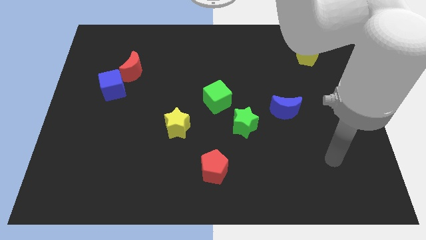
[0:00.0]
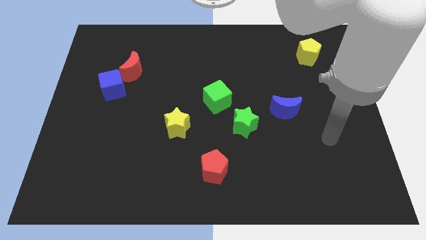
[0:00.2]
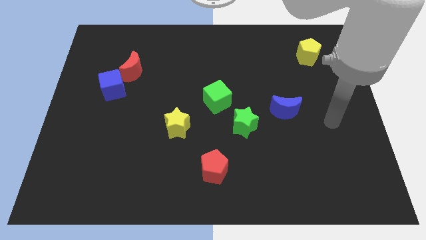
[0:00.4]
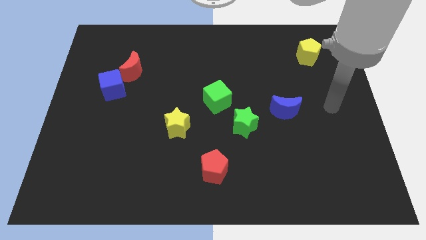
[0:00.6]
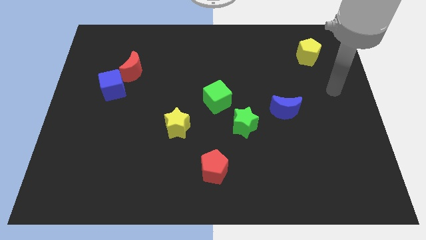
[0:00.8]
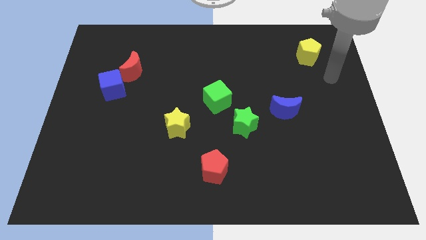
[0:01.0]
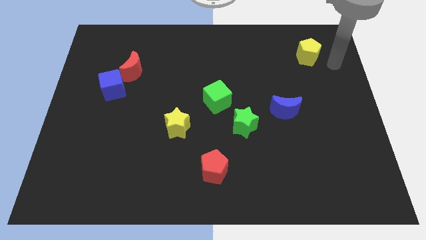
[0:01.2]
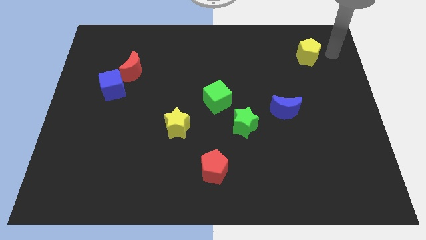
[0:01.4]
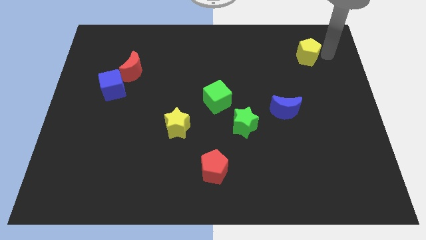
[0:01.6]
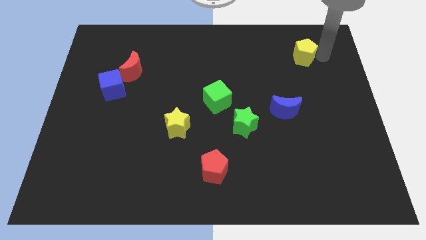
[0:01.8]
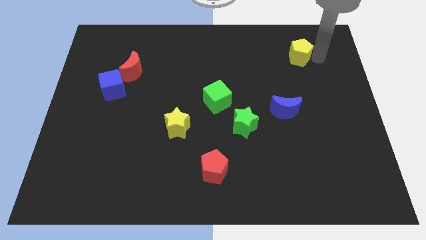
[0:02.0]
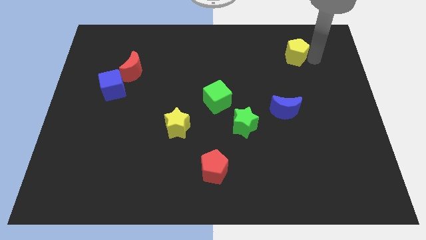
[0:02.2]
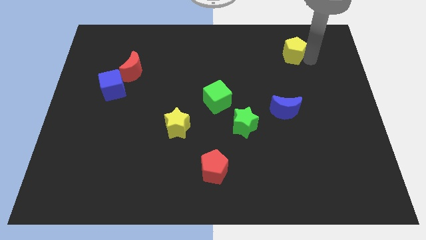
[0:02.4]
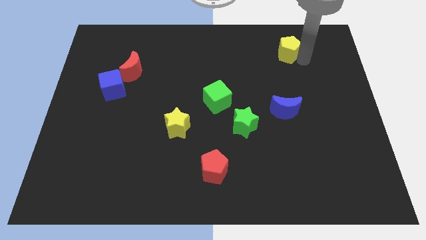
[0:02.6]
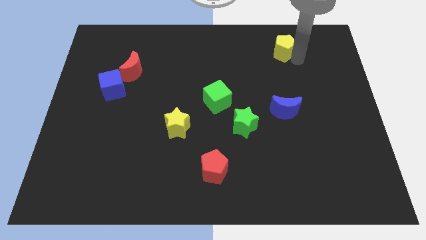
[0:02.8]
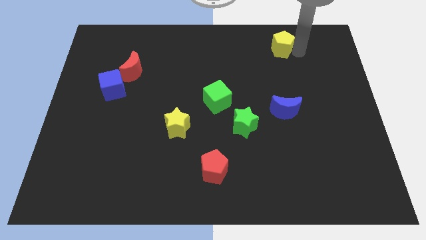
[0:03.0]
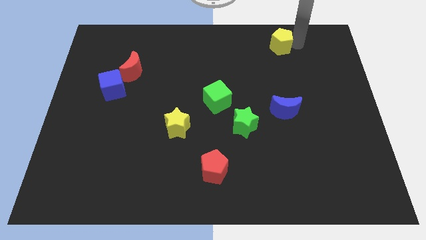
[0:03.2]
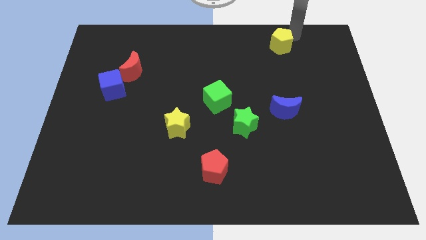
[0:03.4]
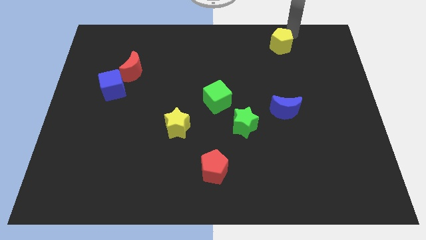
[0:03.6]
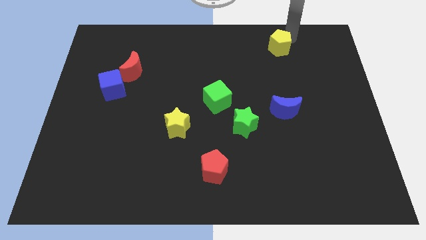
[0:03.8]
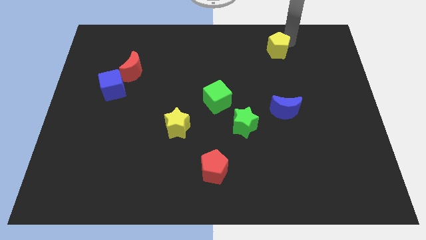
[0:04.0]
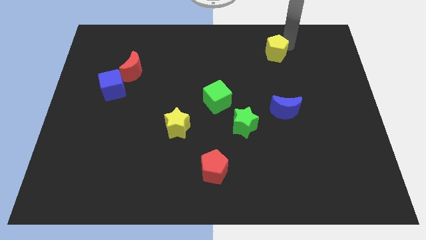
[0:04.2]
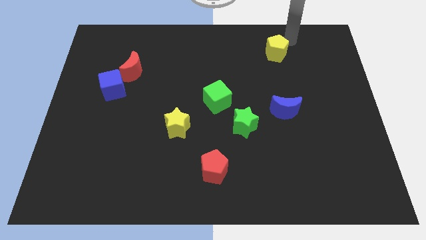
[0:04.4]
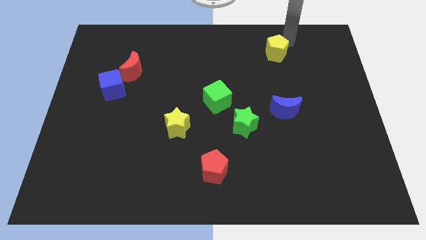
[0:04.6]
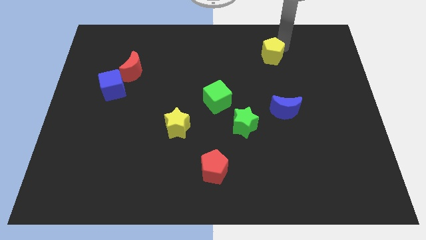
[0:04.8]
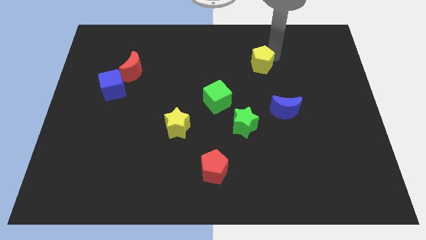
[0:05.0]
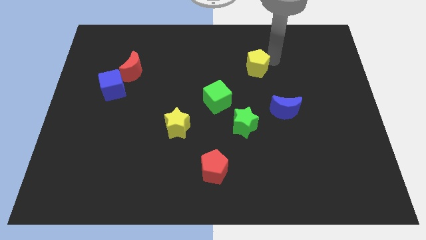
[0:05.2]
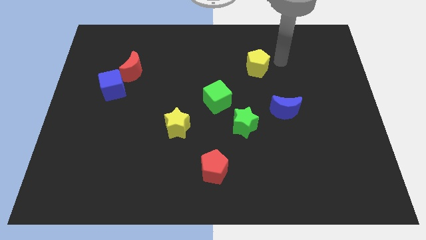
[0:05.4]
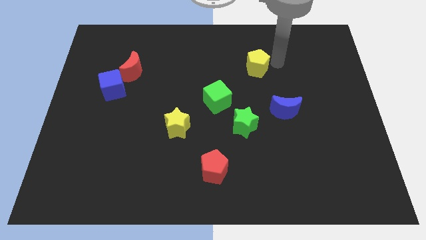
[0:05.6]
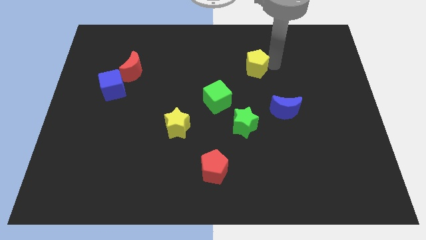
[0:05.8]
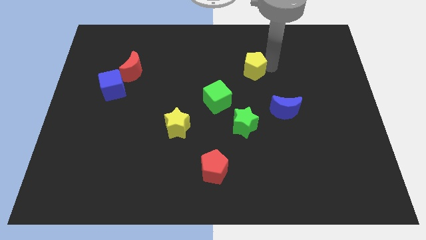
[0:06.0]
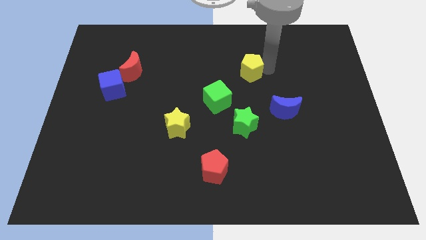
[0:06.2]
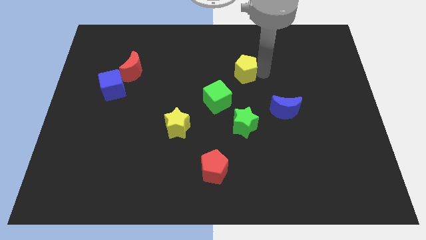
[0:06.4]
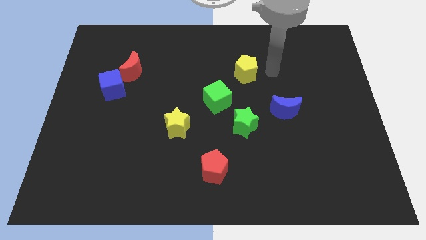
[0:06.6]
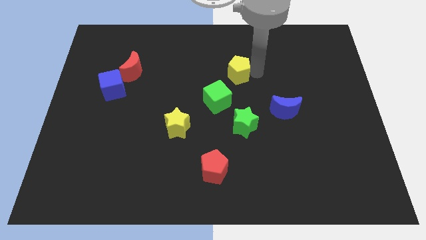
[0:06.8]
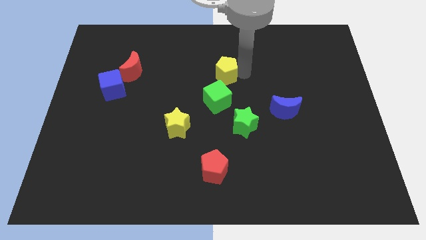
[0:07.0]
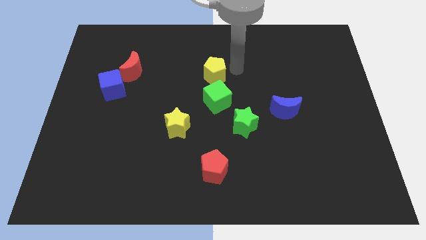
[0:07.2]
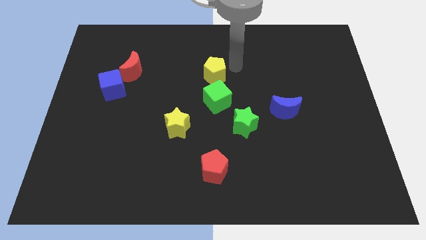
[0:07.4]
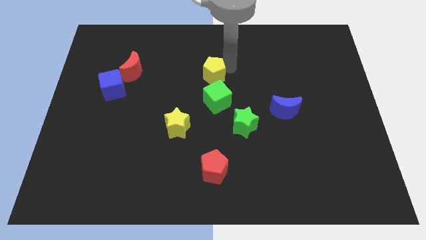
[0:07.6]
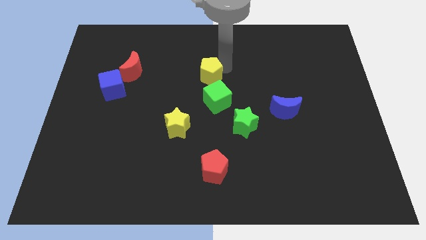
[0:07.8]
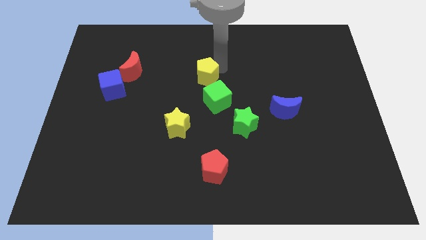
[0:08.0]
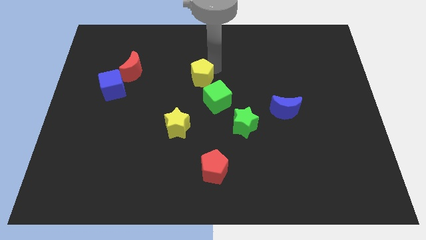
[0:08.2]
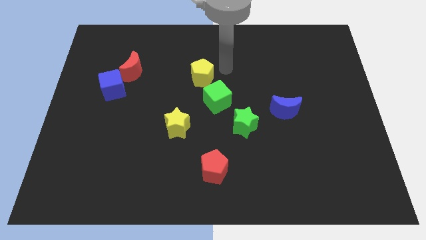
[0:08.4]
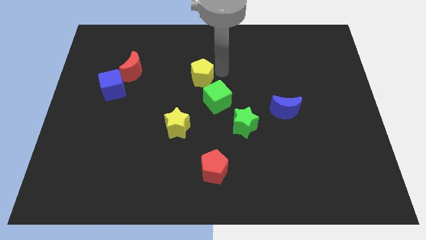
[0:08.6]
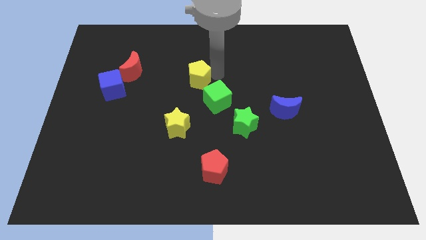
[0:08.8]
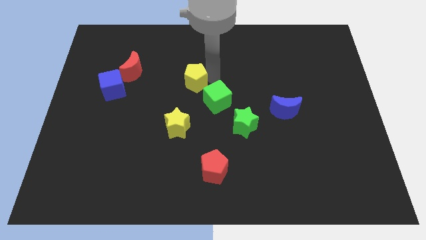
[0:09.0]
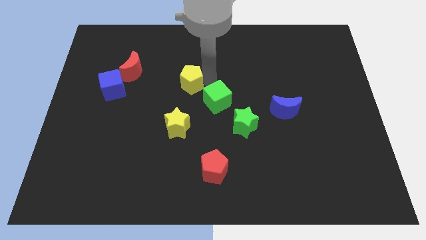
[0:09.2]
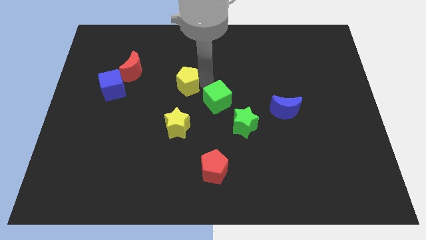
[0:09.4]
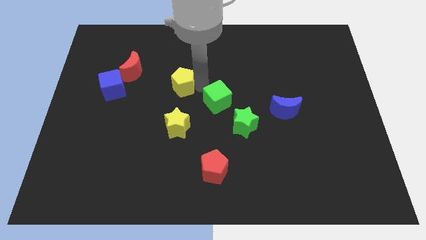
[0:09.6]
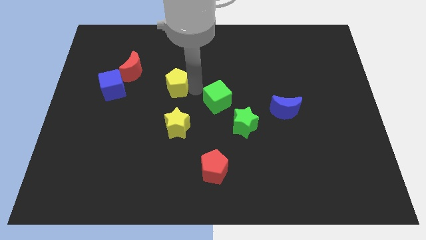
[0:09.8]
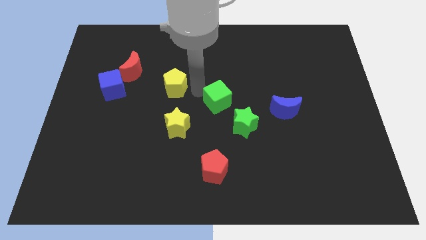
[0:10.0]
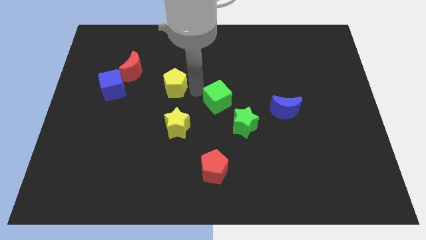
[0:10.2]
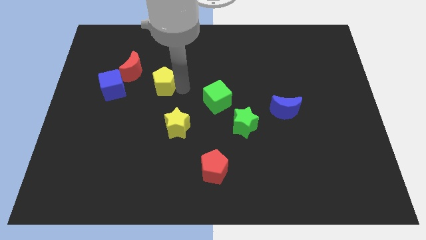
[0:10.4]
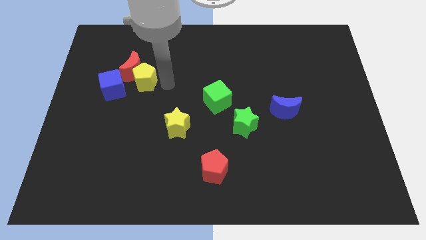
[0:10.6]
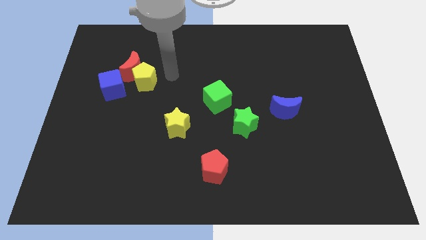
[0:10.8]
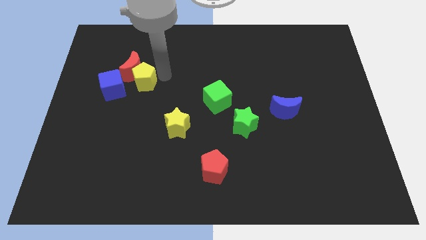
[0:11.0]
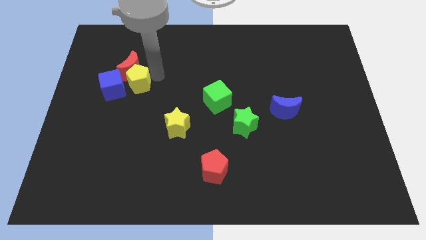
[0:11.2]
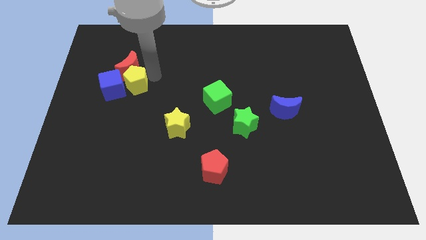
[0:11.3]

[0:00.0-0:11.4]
push the yellow pentagon close to the blue cube
